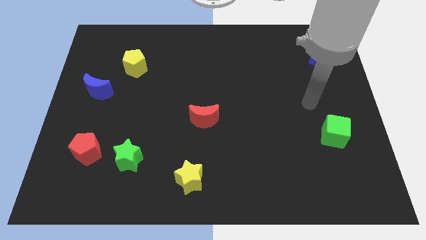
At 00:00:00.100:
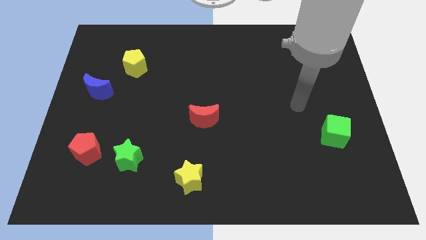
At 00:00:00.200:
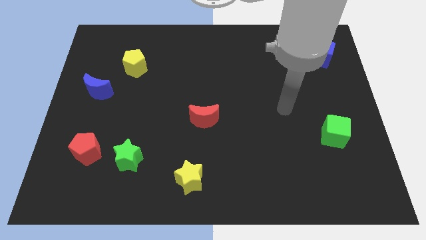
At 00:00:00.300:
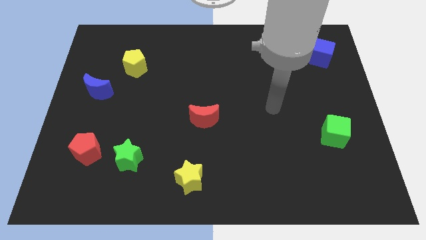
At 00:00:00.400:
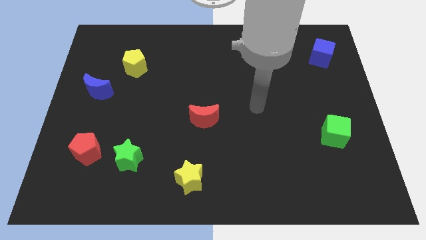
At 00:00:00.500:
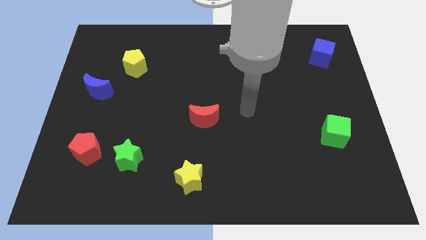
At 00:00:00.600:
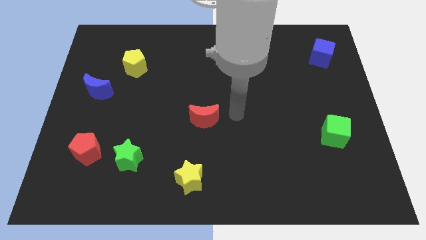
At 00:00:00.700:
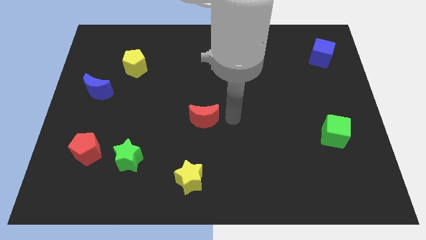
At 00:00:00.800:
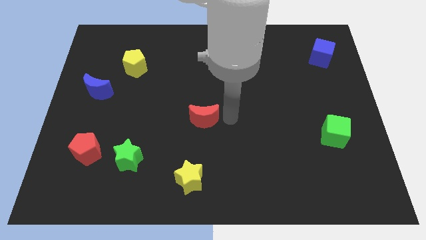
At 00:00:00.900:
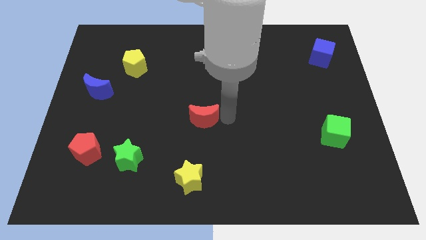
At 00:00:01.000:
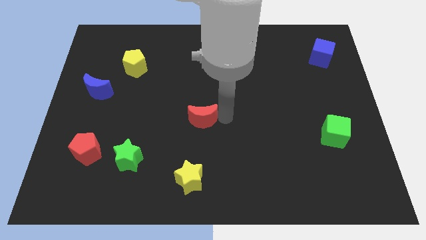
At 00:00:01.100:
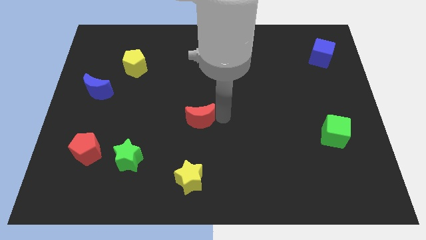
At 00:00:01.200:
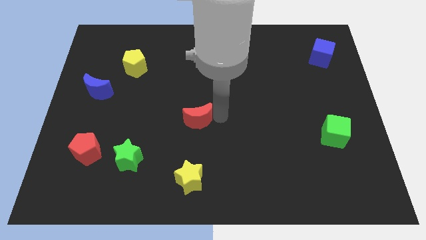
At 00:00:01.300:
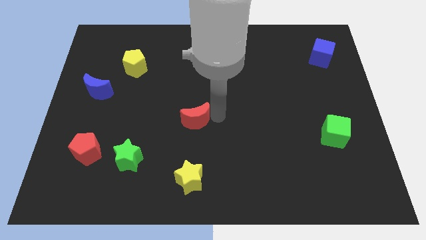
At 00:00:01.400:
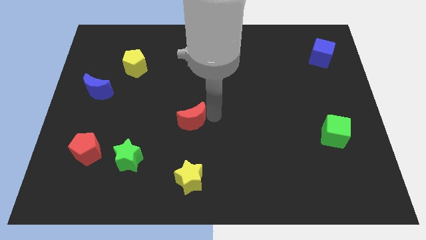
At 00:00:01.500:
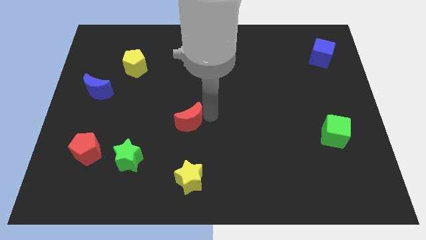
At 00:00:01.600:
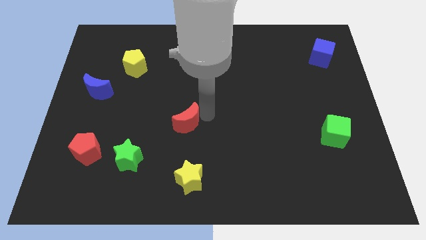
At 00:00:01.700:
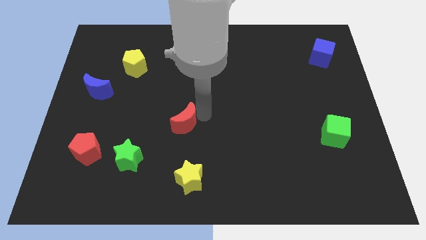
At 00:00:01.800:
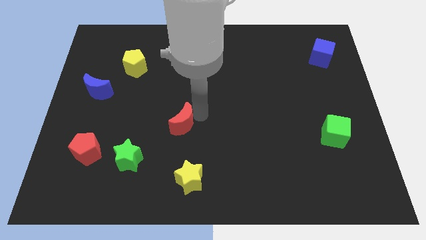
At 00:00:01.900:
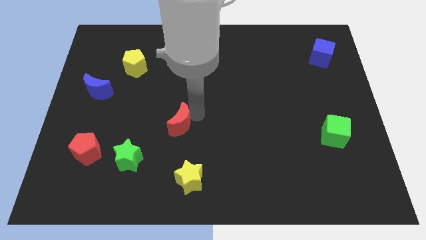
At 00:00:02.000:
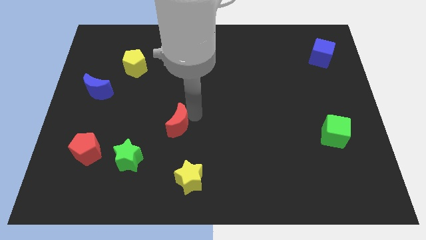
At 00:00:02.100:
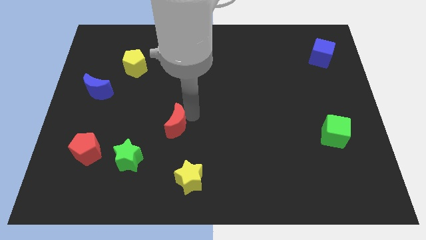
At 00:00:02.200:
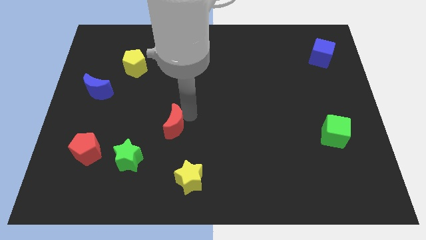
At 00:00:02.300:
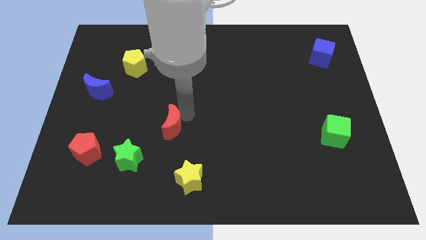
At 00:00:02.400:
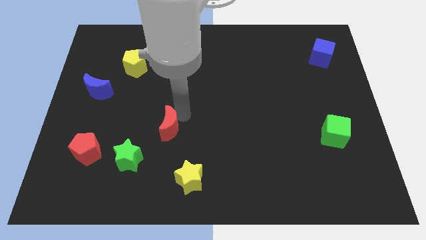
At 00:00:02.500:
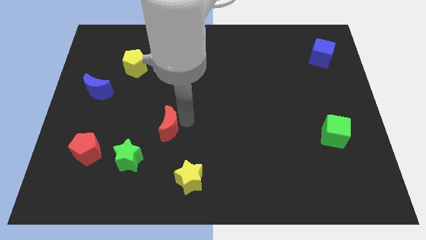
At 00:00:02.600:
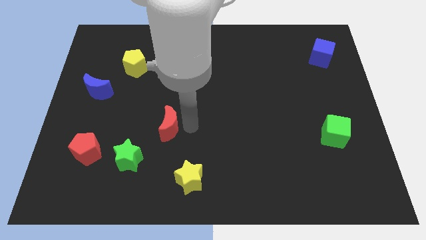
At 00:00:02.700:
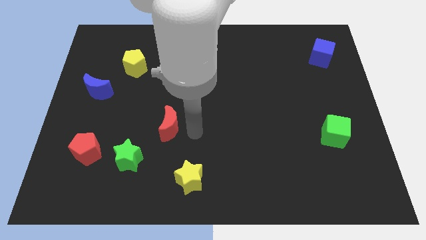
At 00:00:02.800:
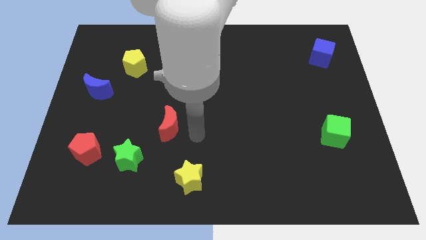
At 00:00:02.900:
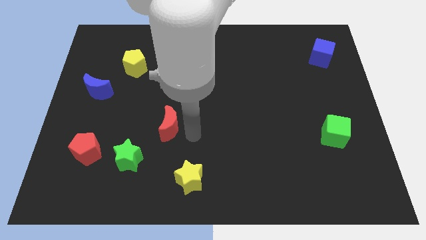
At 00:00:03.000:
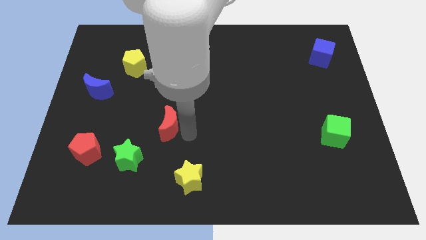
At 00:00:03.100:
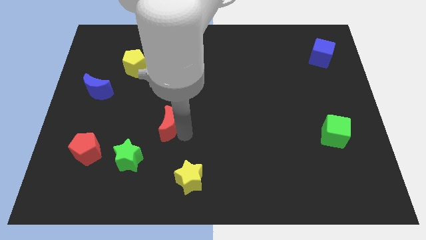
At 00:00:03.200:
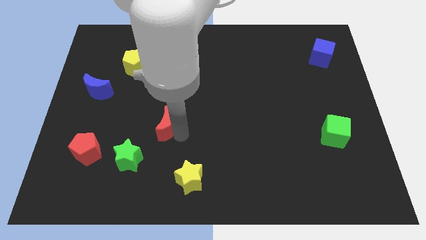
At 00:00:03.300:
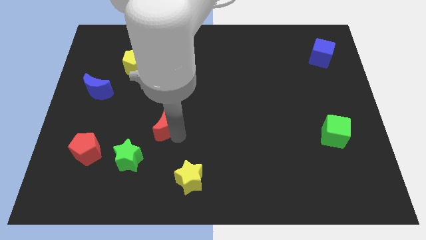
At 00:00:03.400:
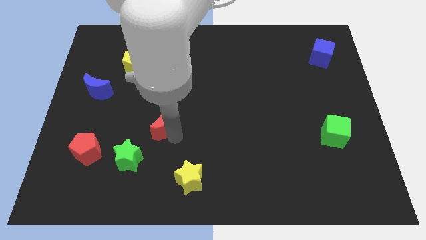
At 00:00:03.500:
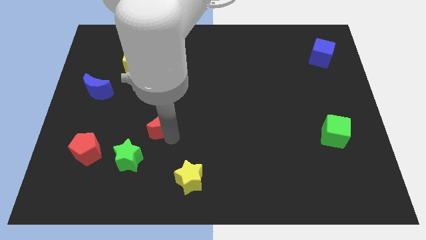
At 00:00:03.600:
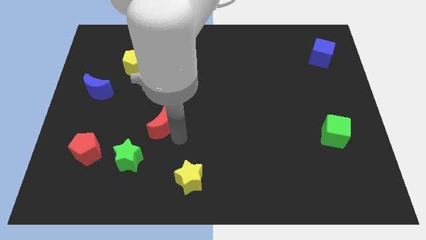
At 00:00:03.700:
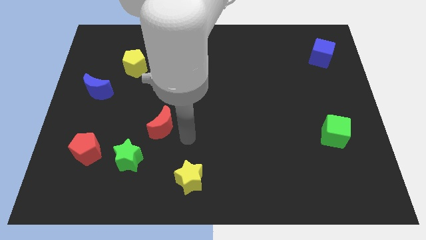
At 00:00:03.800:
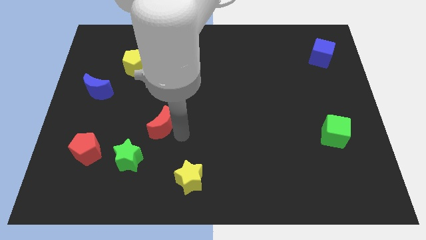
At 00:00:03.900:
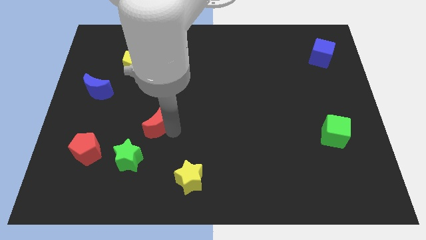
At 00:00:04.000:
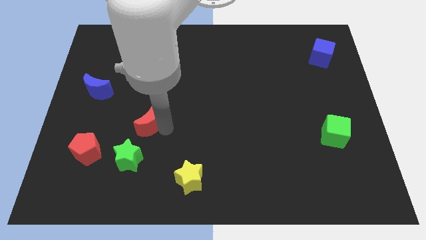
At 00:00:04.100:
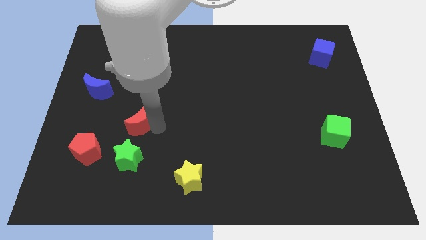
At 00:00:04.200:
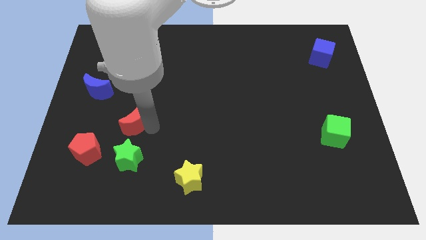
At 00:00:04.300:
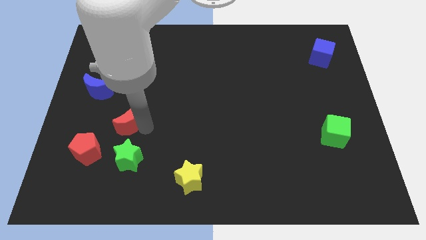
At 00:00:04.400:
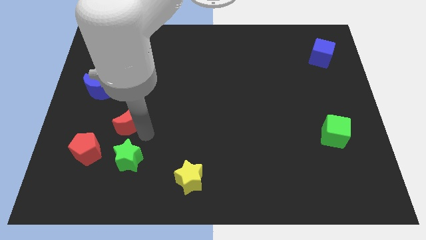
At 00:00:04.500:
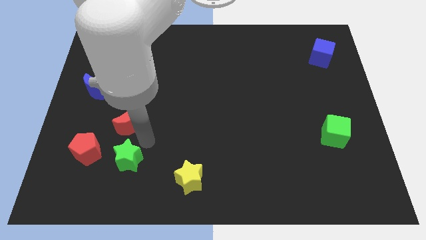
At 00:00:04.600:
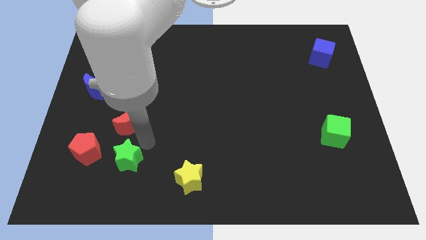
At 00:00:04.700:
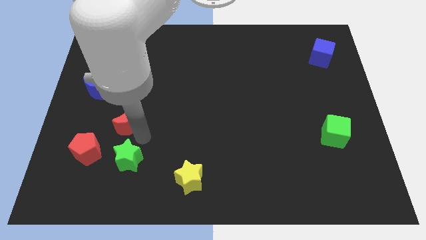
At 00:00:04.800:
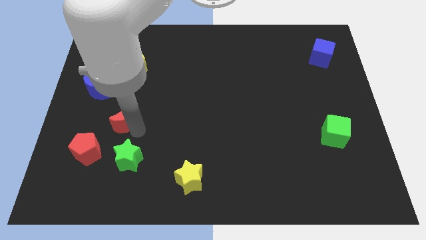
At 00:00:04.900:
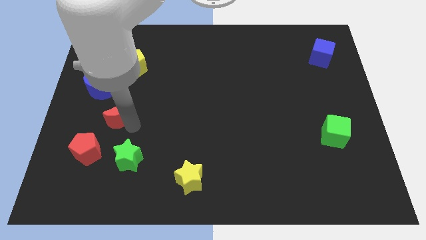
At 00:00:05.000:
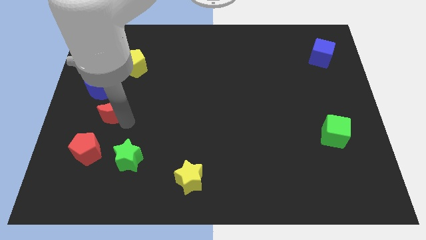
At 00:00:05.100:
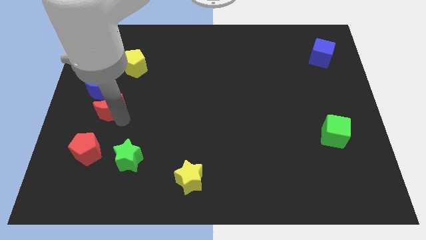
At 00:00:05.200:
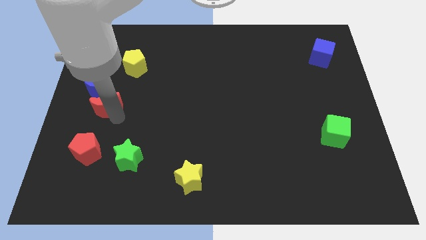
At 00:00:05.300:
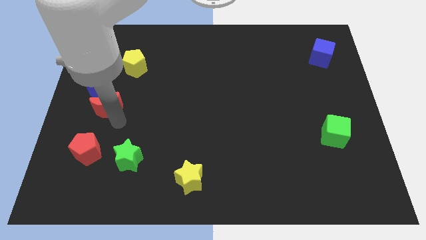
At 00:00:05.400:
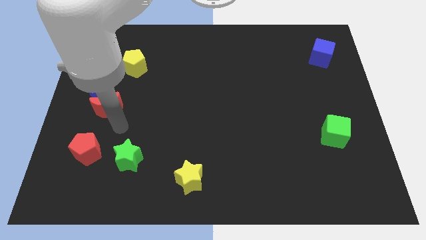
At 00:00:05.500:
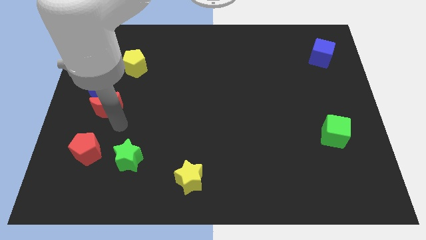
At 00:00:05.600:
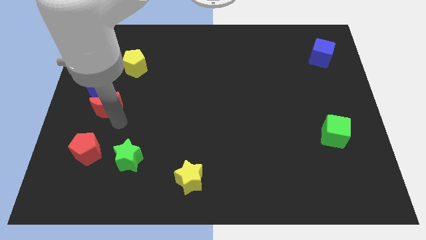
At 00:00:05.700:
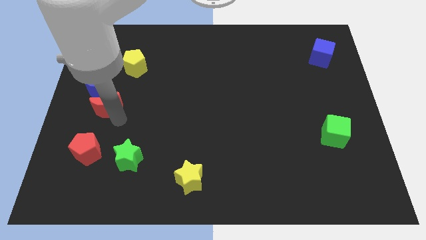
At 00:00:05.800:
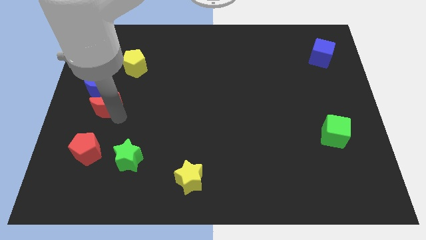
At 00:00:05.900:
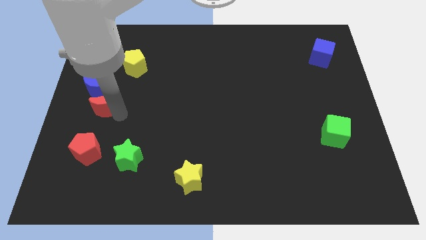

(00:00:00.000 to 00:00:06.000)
slide the red moon close to the blue moon

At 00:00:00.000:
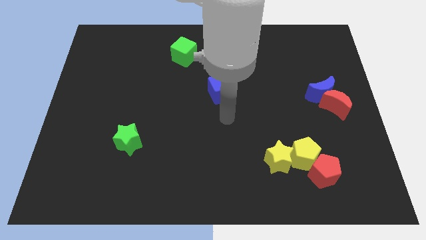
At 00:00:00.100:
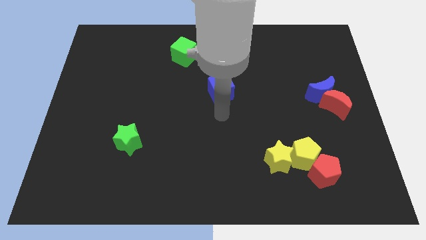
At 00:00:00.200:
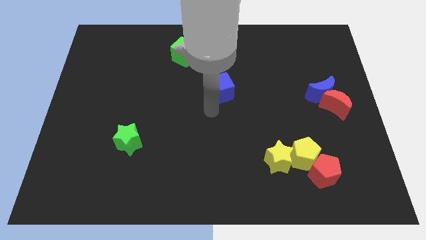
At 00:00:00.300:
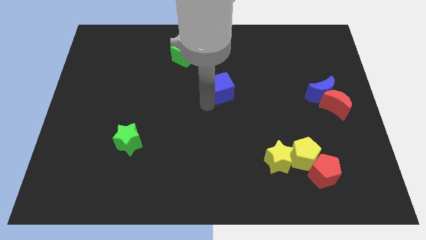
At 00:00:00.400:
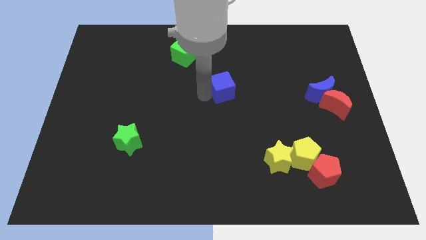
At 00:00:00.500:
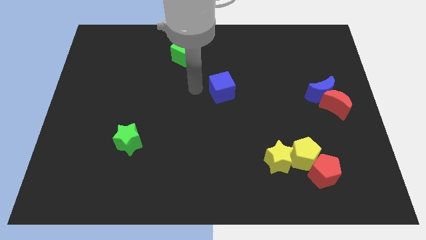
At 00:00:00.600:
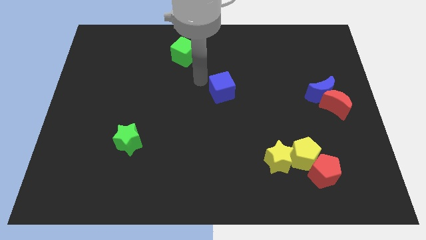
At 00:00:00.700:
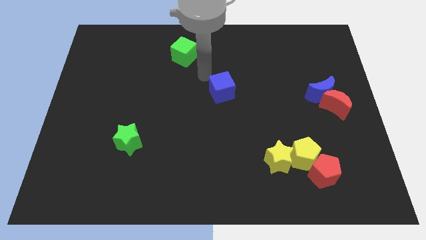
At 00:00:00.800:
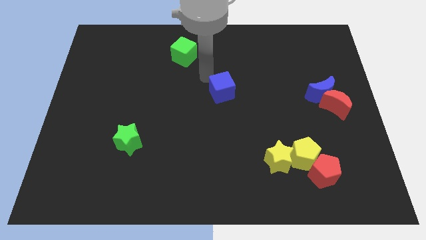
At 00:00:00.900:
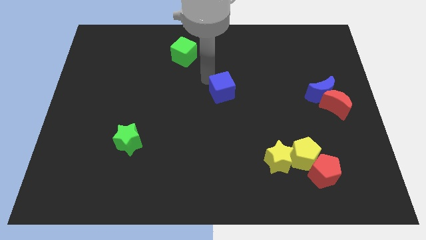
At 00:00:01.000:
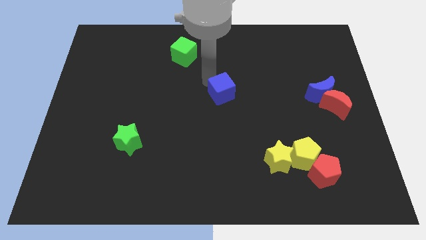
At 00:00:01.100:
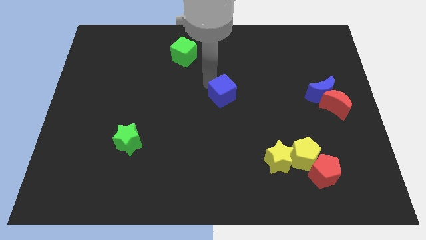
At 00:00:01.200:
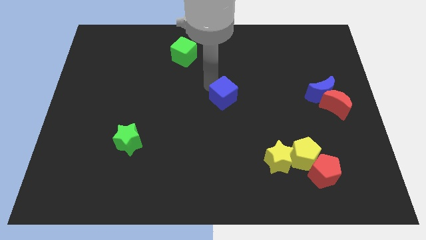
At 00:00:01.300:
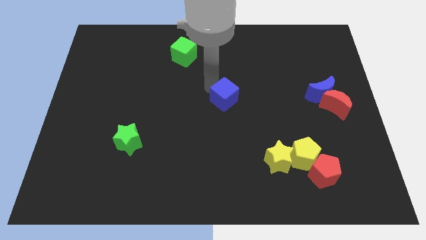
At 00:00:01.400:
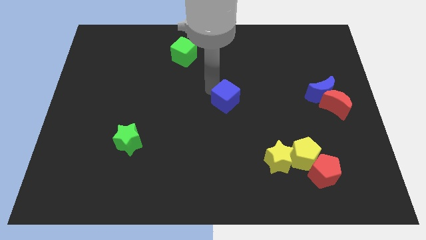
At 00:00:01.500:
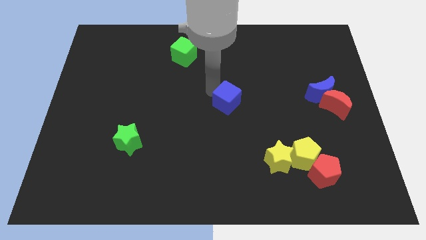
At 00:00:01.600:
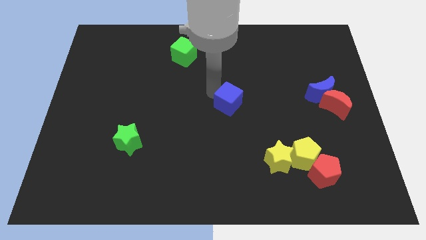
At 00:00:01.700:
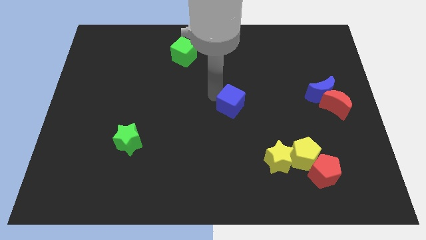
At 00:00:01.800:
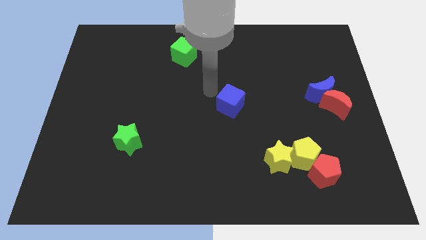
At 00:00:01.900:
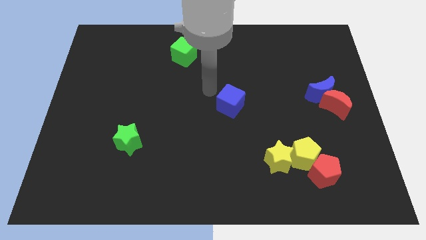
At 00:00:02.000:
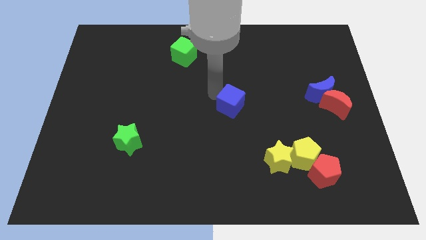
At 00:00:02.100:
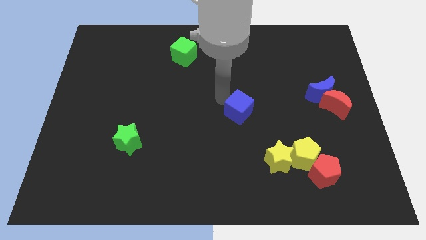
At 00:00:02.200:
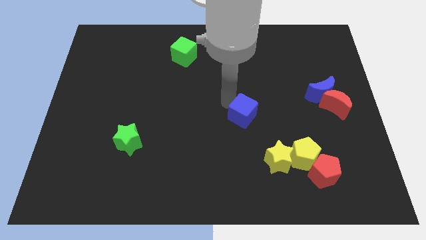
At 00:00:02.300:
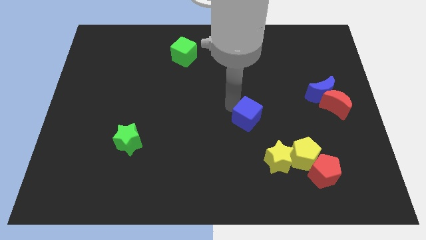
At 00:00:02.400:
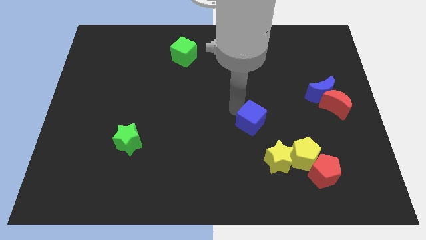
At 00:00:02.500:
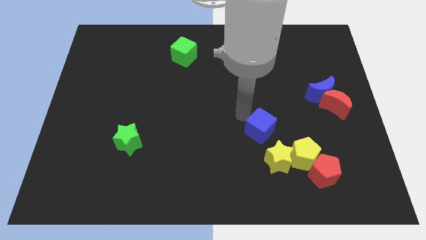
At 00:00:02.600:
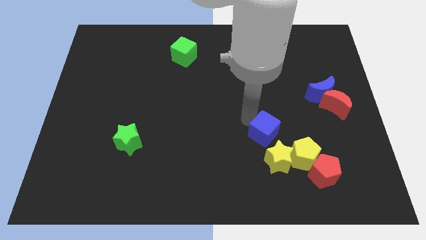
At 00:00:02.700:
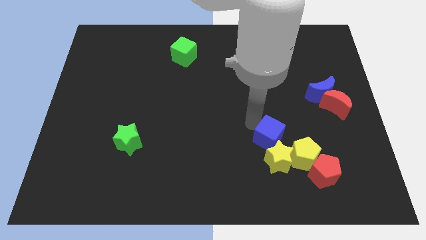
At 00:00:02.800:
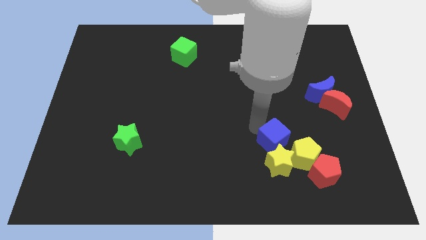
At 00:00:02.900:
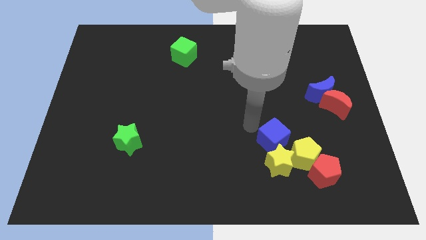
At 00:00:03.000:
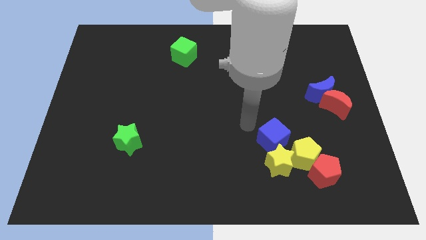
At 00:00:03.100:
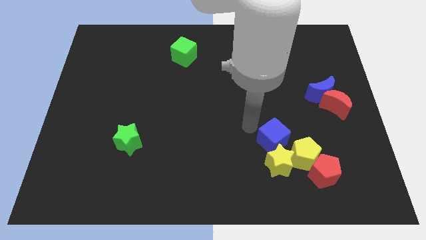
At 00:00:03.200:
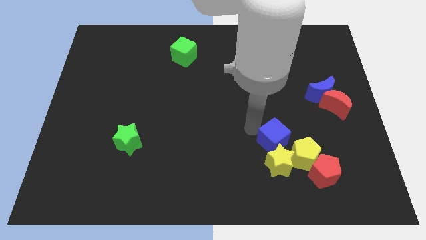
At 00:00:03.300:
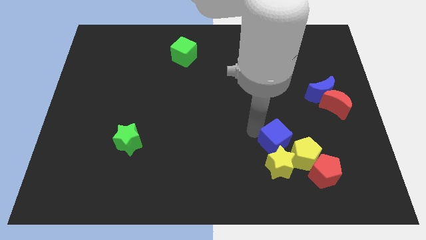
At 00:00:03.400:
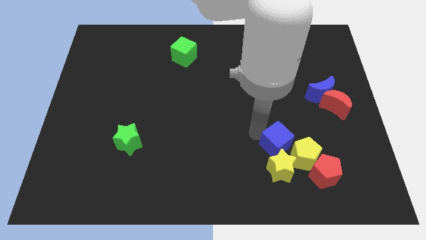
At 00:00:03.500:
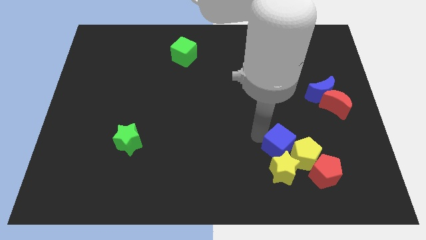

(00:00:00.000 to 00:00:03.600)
push the blue cube next to the yellow pentagon
